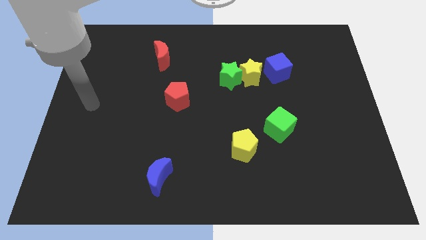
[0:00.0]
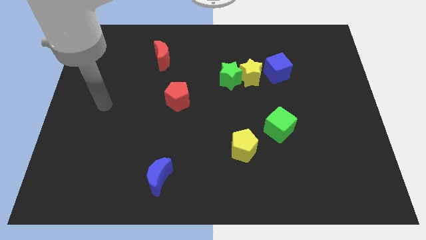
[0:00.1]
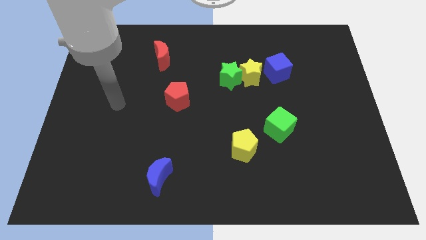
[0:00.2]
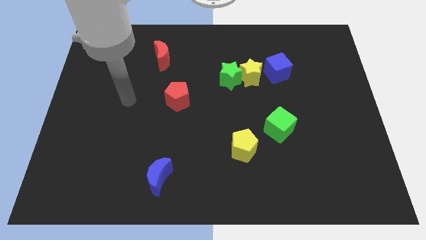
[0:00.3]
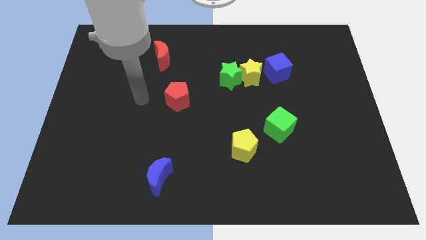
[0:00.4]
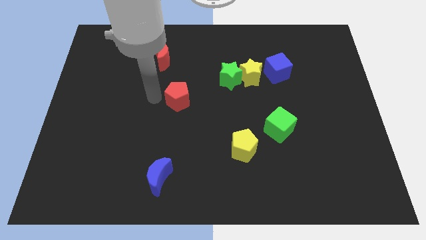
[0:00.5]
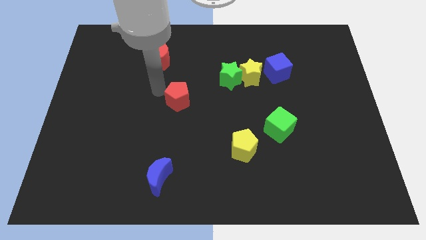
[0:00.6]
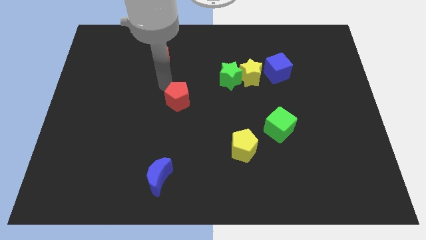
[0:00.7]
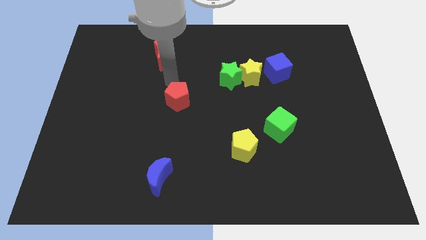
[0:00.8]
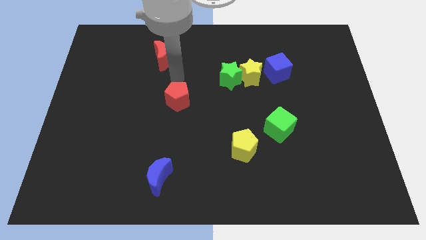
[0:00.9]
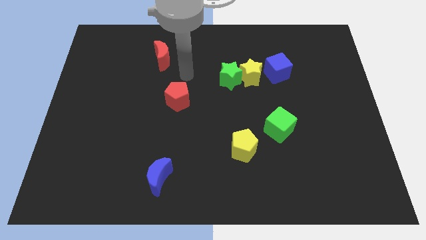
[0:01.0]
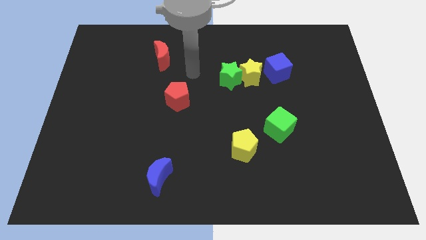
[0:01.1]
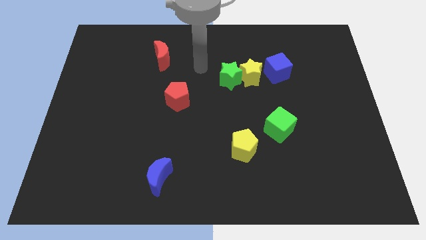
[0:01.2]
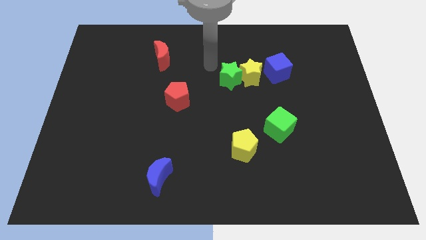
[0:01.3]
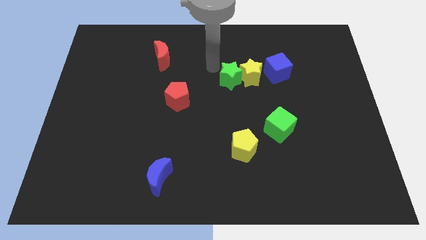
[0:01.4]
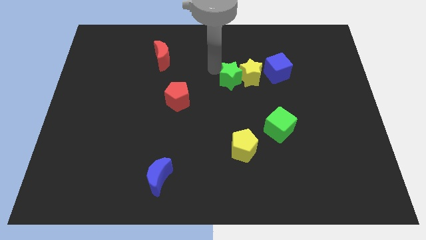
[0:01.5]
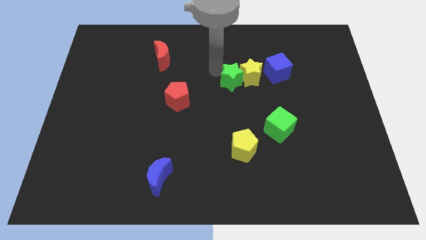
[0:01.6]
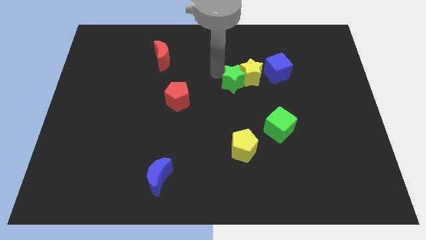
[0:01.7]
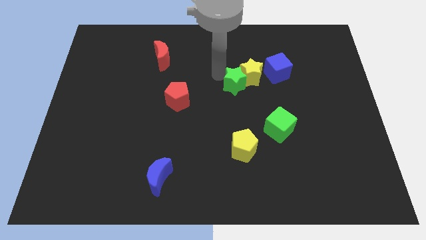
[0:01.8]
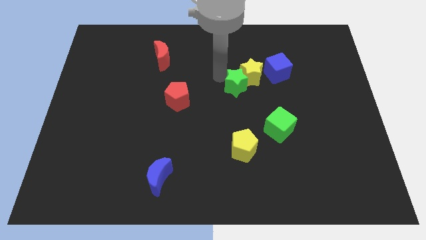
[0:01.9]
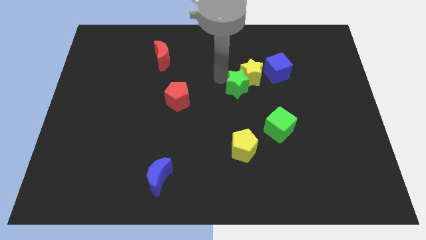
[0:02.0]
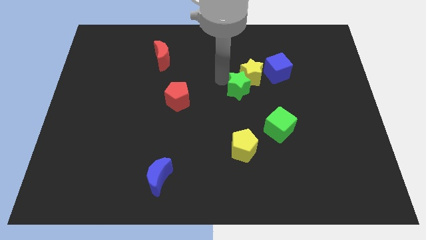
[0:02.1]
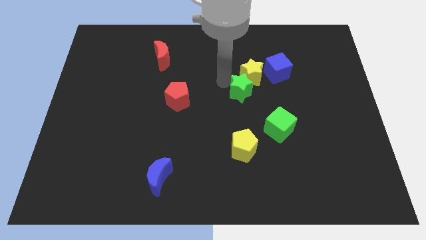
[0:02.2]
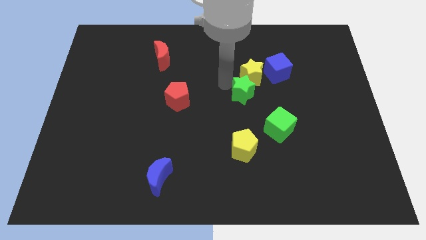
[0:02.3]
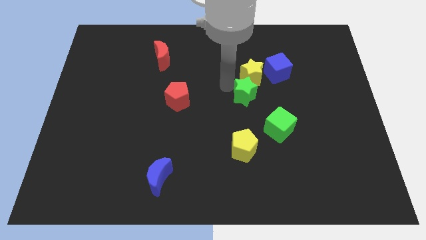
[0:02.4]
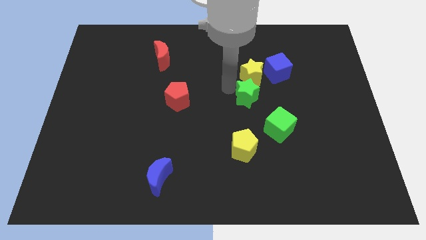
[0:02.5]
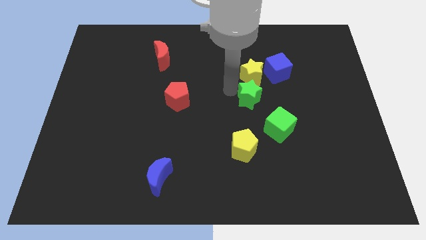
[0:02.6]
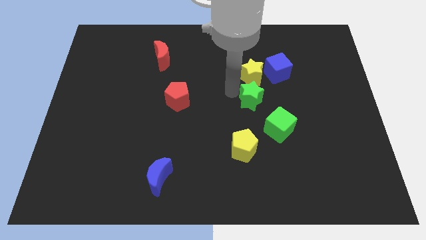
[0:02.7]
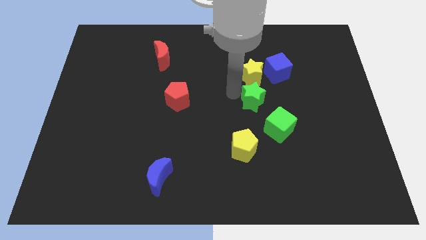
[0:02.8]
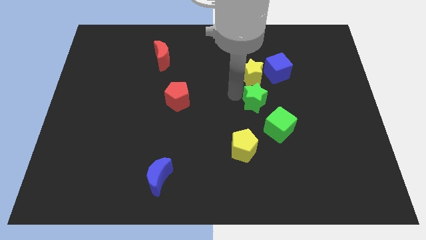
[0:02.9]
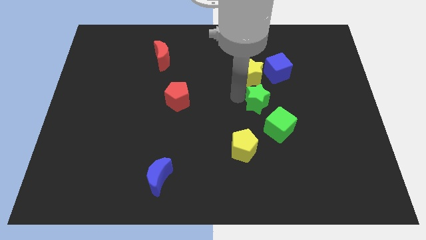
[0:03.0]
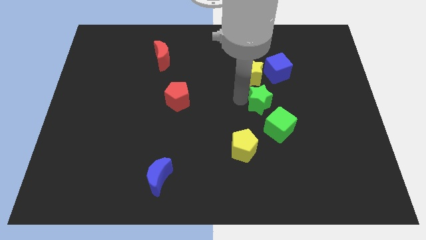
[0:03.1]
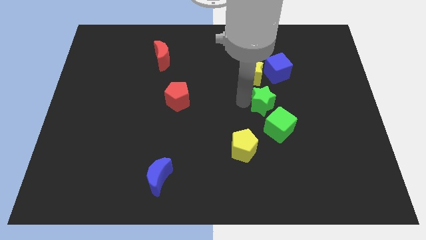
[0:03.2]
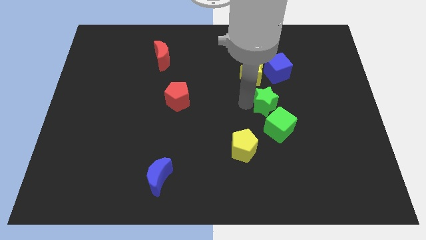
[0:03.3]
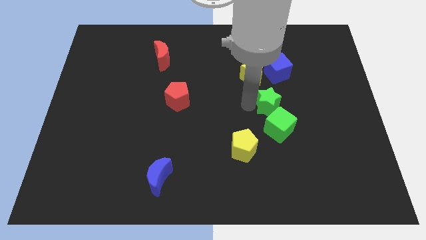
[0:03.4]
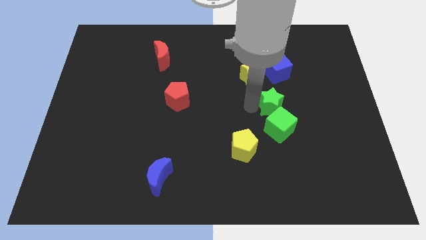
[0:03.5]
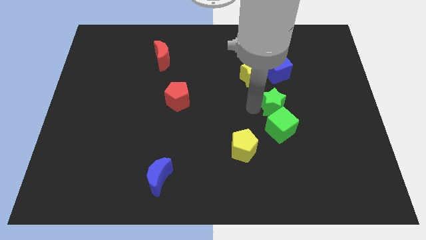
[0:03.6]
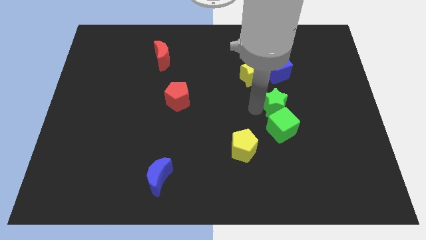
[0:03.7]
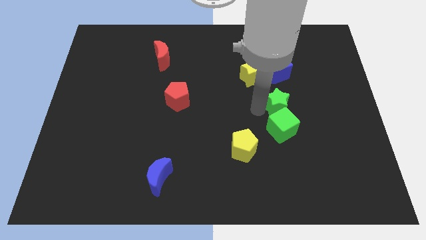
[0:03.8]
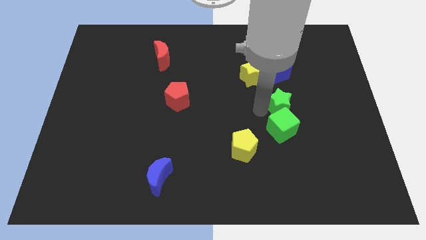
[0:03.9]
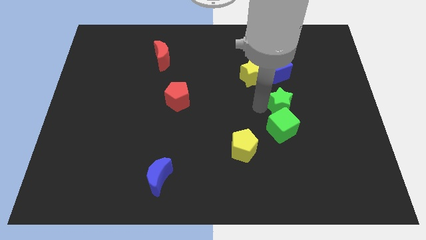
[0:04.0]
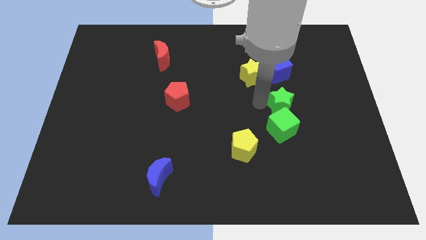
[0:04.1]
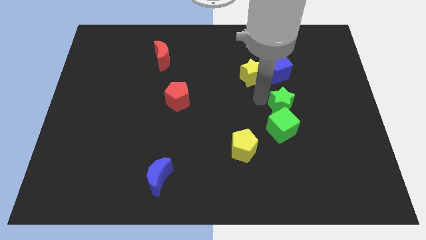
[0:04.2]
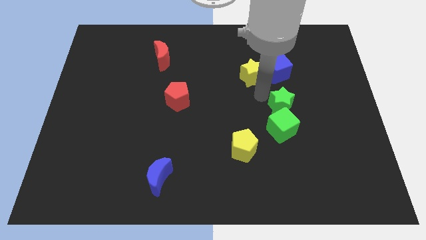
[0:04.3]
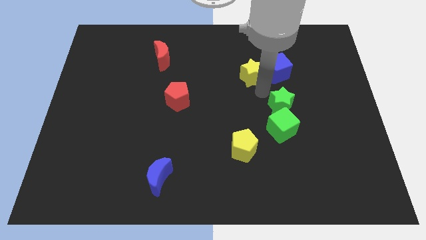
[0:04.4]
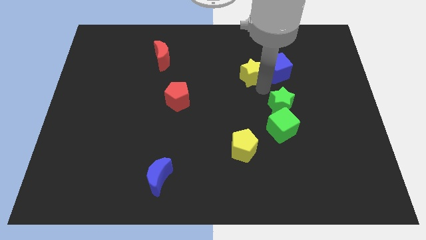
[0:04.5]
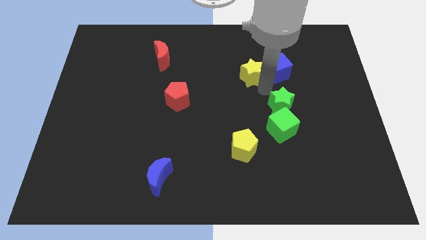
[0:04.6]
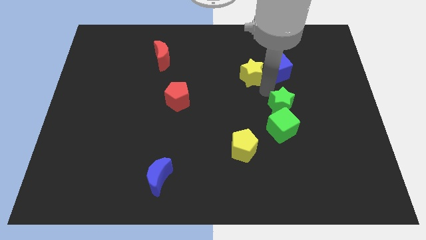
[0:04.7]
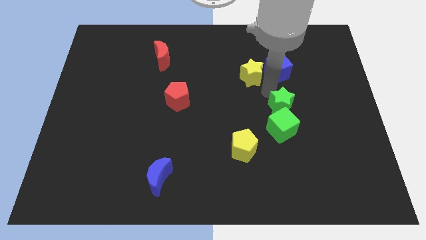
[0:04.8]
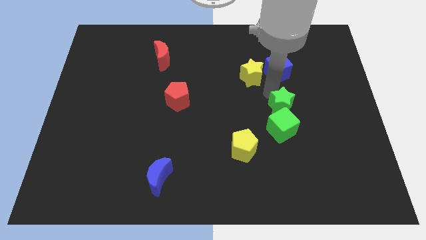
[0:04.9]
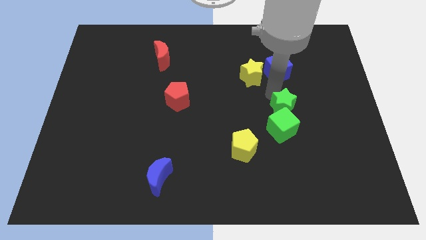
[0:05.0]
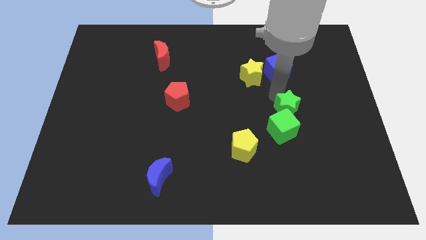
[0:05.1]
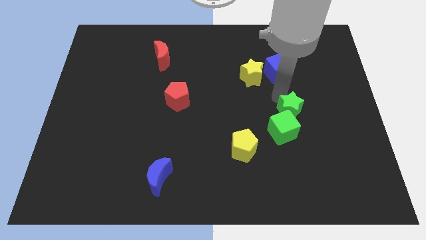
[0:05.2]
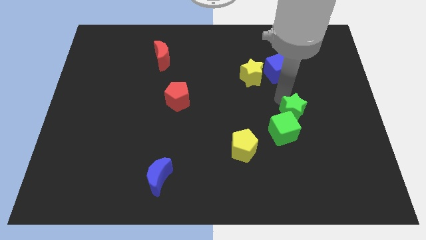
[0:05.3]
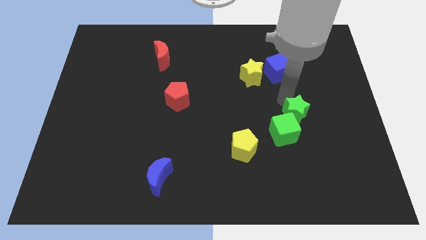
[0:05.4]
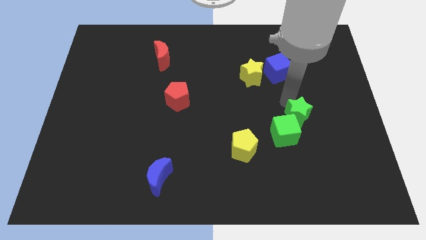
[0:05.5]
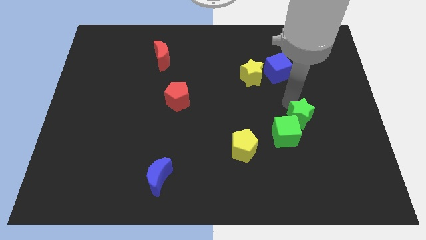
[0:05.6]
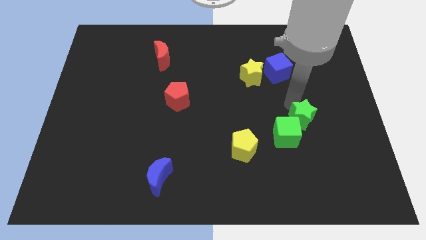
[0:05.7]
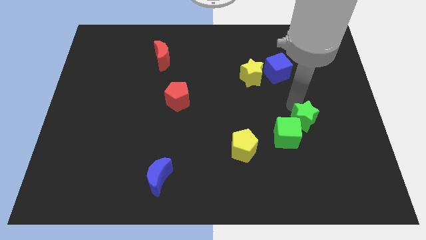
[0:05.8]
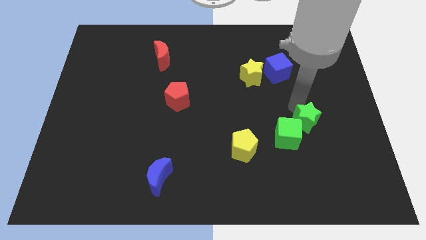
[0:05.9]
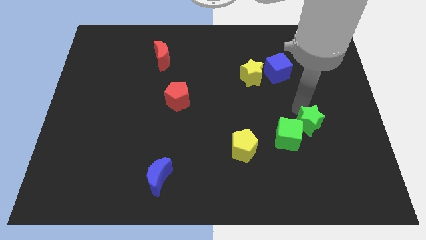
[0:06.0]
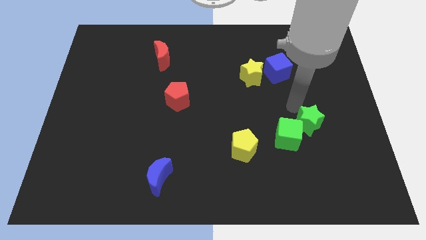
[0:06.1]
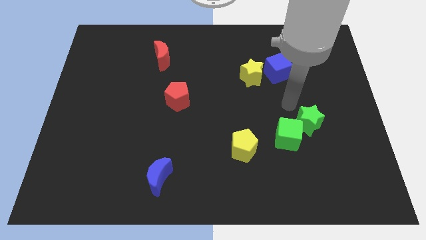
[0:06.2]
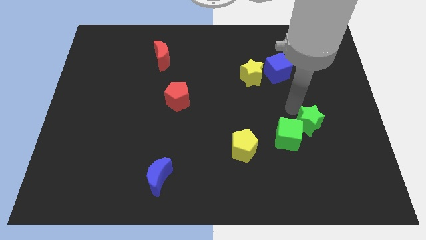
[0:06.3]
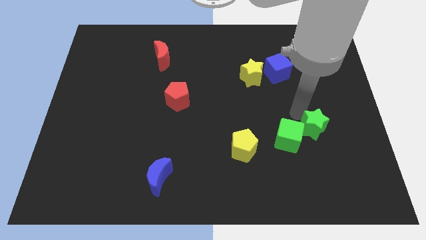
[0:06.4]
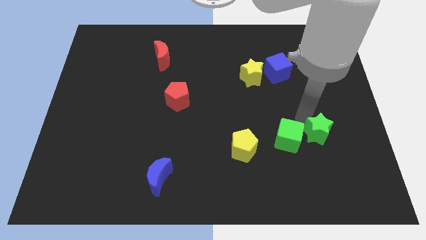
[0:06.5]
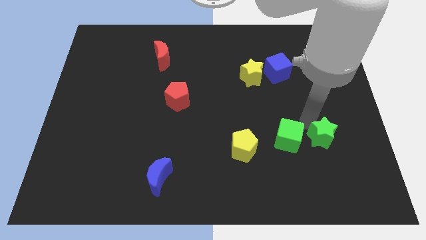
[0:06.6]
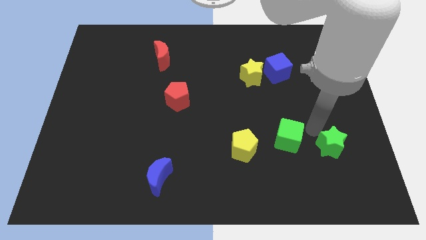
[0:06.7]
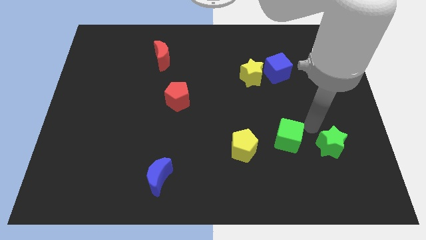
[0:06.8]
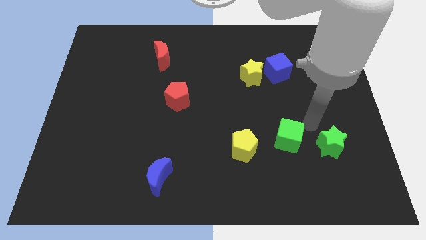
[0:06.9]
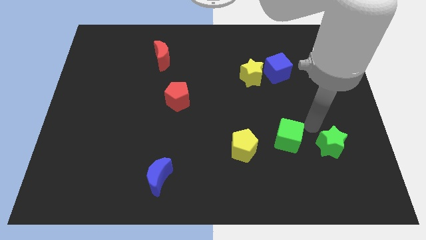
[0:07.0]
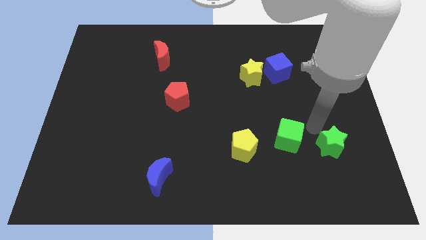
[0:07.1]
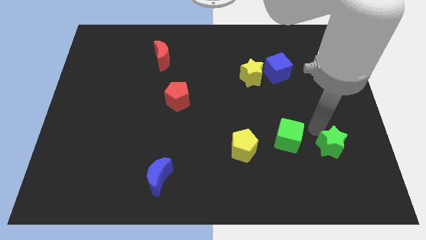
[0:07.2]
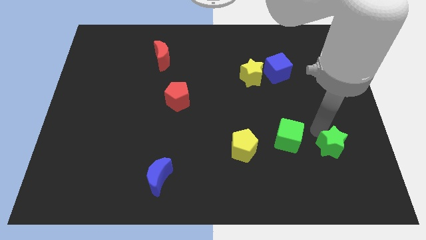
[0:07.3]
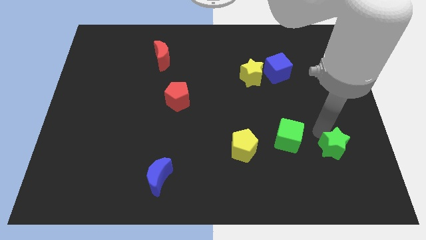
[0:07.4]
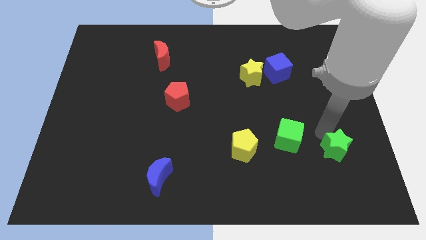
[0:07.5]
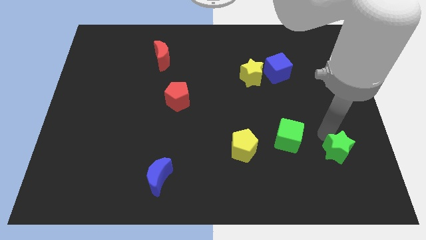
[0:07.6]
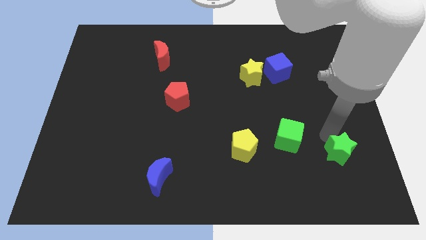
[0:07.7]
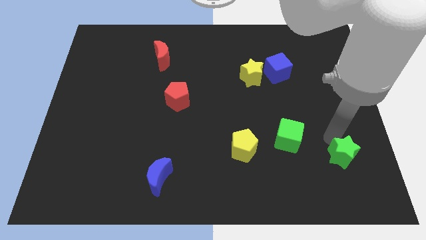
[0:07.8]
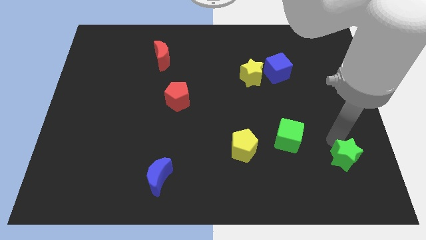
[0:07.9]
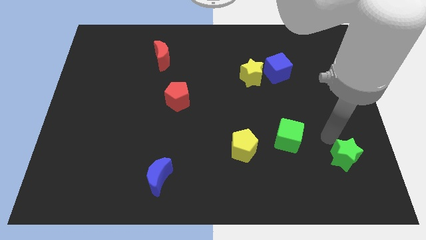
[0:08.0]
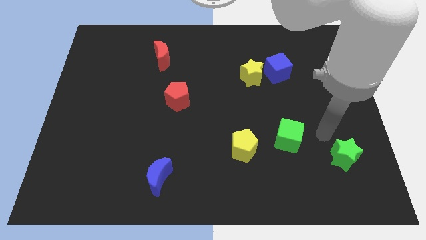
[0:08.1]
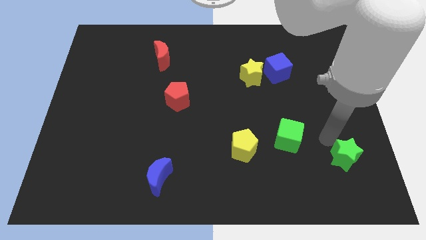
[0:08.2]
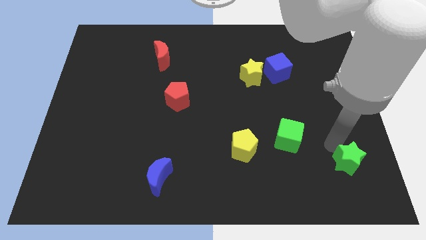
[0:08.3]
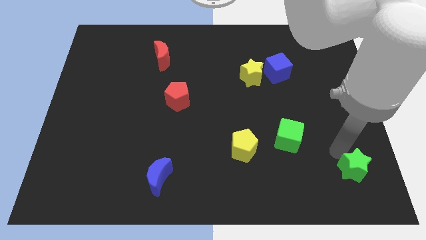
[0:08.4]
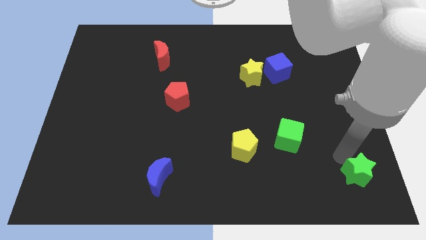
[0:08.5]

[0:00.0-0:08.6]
move the green star to the lower right corner
